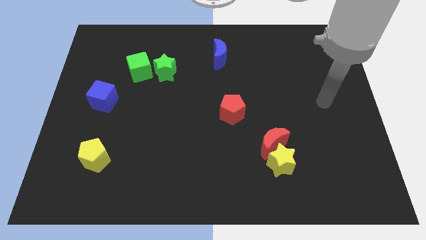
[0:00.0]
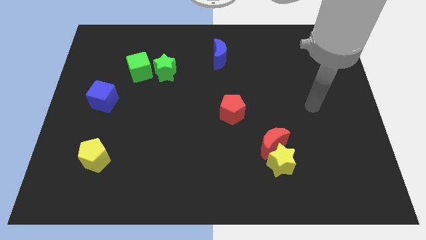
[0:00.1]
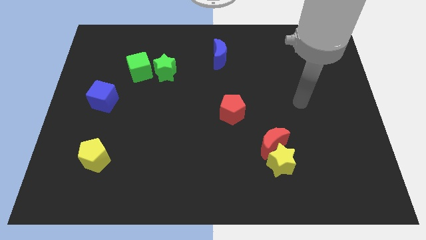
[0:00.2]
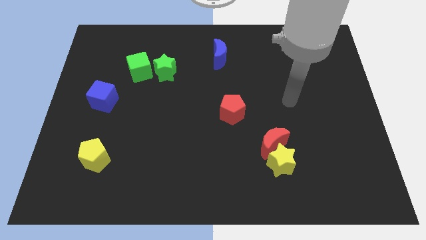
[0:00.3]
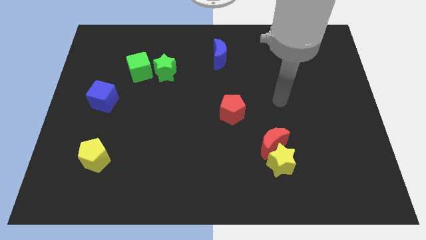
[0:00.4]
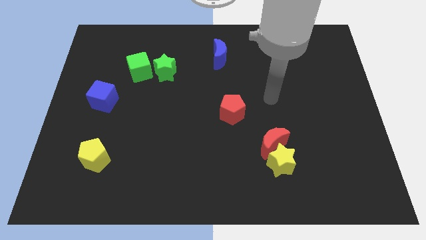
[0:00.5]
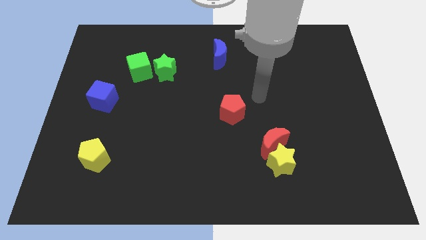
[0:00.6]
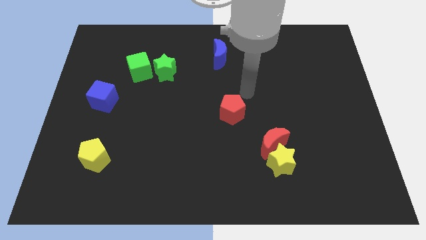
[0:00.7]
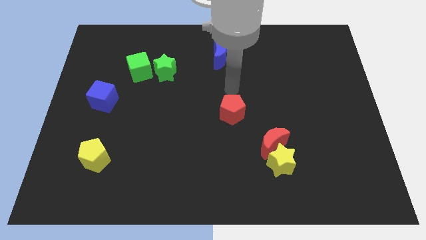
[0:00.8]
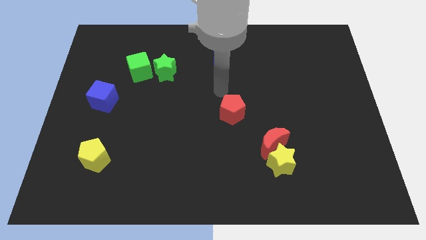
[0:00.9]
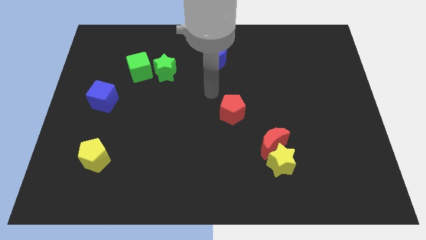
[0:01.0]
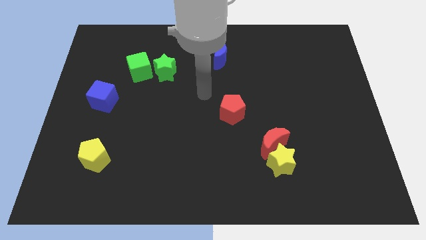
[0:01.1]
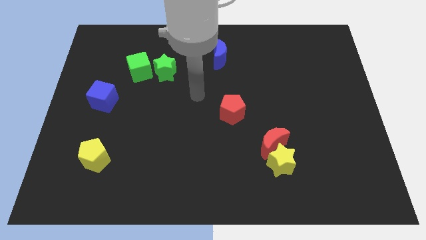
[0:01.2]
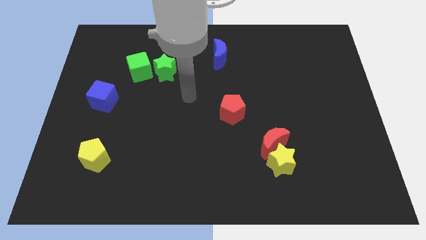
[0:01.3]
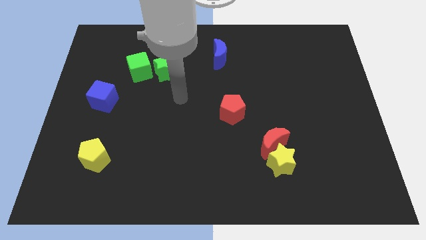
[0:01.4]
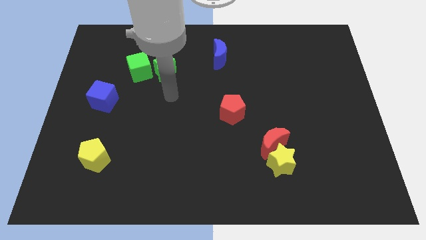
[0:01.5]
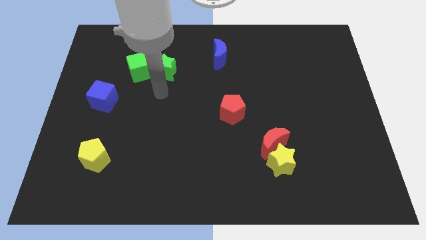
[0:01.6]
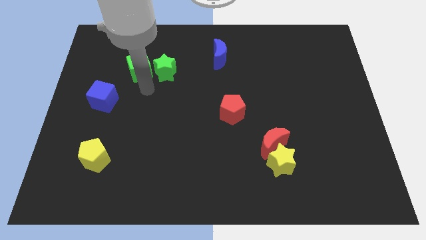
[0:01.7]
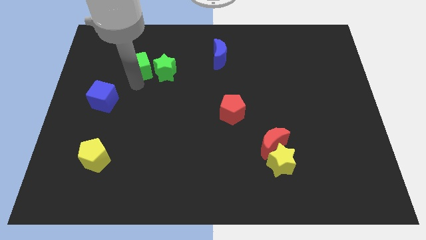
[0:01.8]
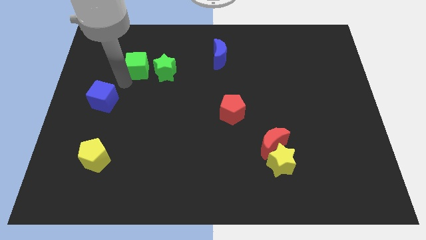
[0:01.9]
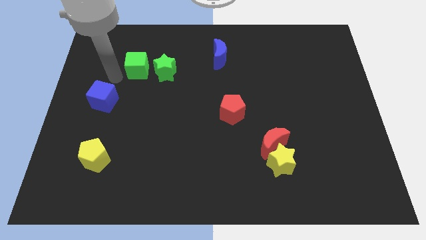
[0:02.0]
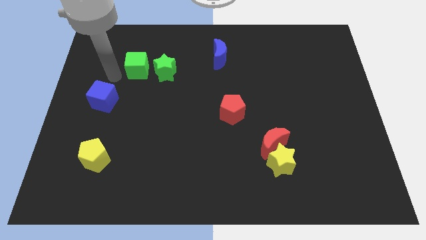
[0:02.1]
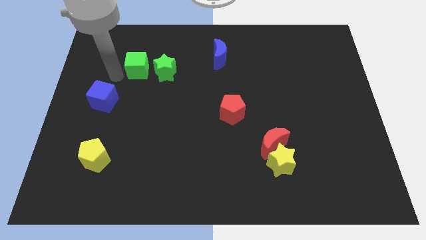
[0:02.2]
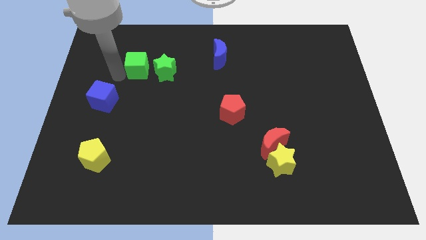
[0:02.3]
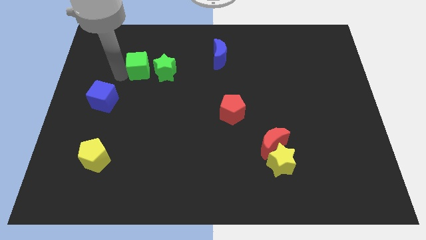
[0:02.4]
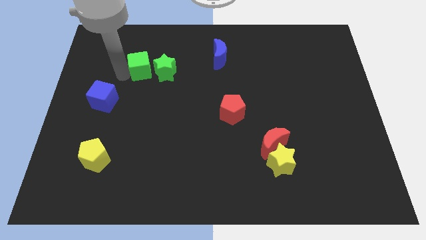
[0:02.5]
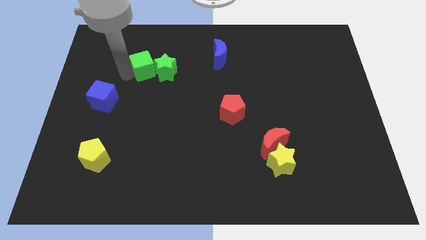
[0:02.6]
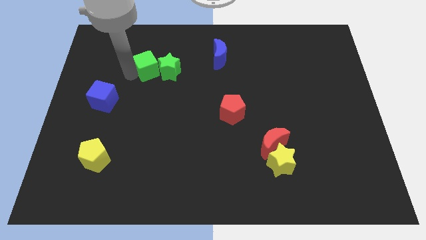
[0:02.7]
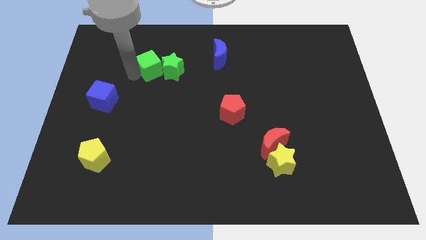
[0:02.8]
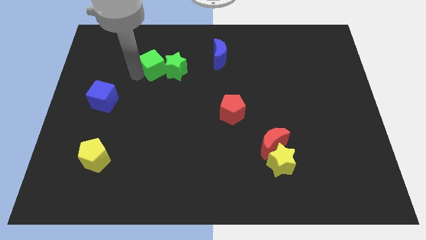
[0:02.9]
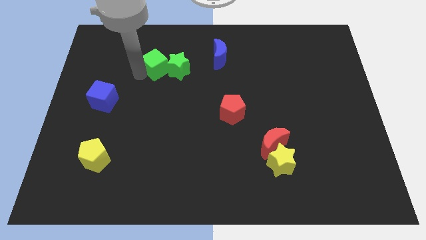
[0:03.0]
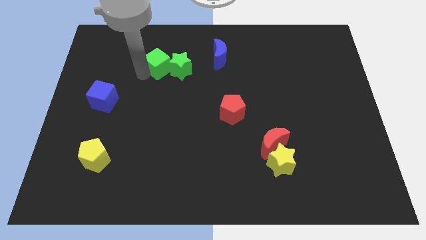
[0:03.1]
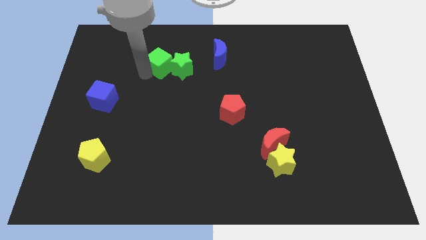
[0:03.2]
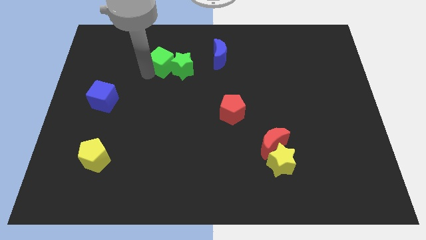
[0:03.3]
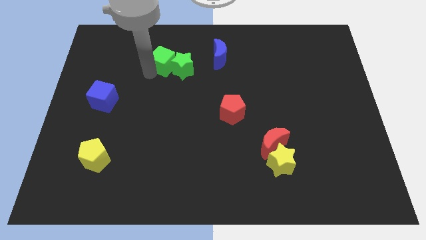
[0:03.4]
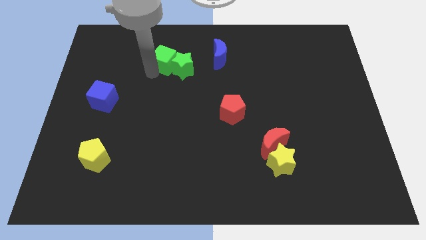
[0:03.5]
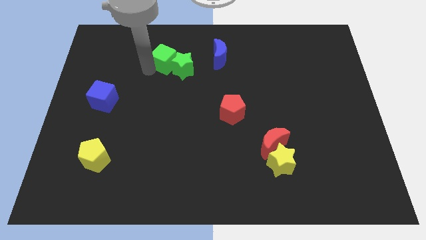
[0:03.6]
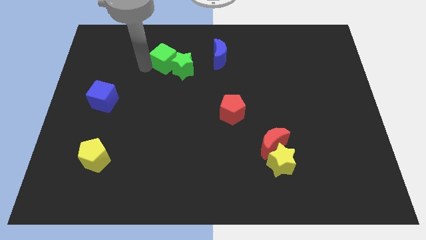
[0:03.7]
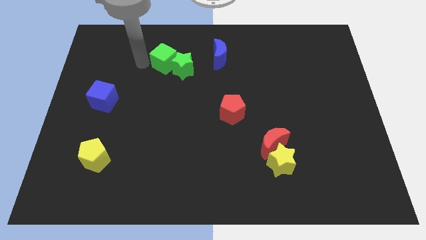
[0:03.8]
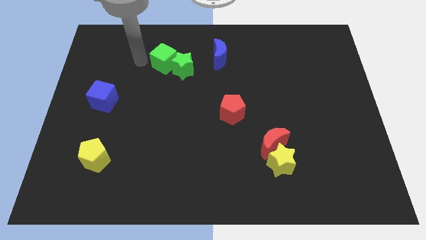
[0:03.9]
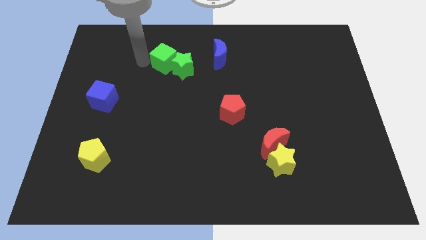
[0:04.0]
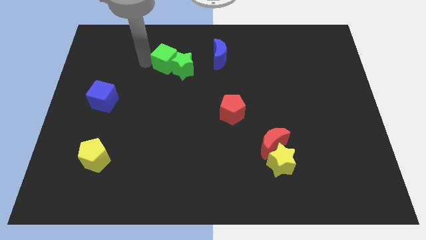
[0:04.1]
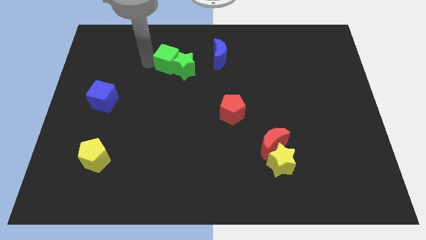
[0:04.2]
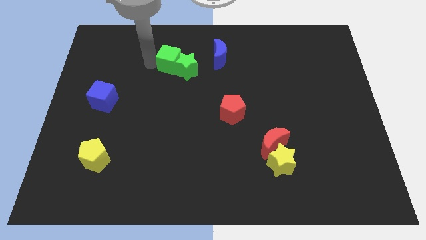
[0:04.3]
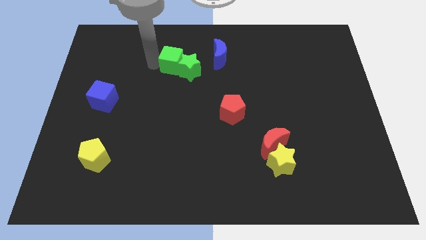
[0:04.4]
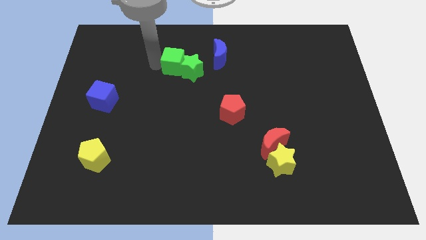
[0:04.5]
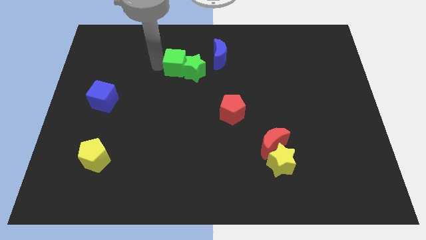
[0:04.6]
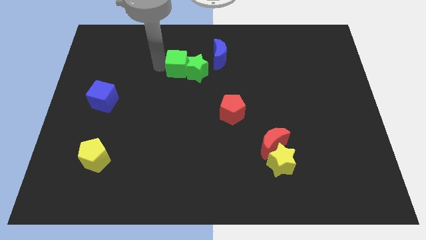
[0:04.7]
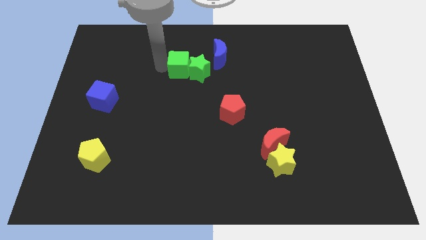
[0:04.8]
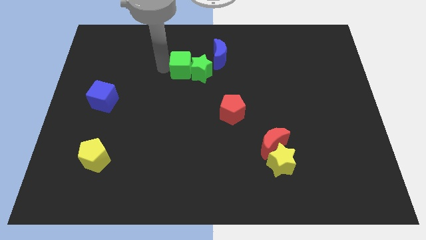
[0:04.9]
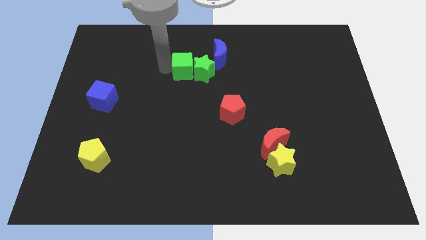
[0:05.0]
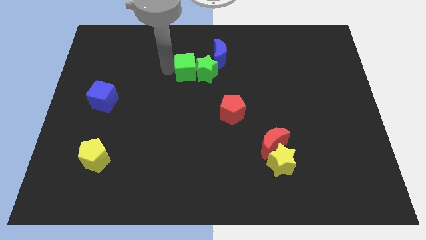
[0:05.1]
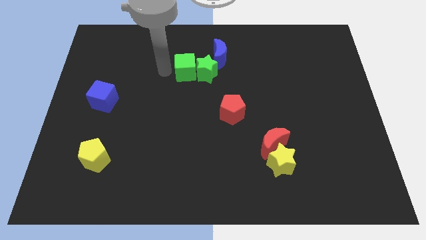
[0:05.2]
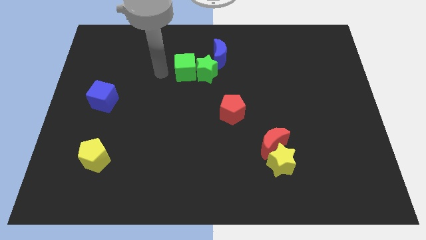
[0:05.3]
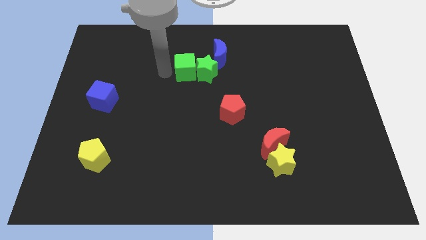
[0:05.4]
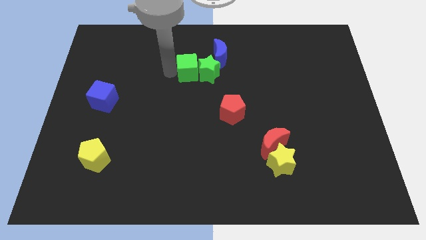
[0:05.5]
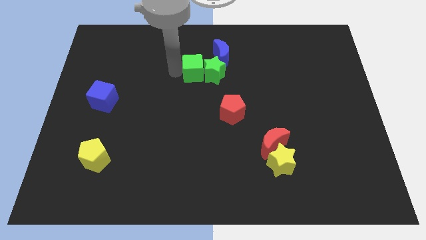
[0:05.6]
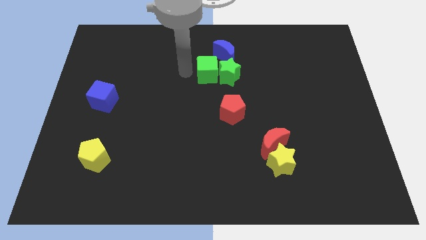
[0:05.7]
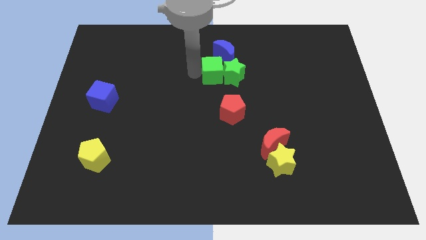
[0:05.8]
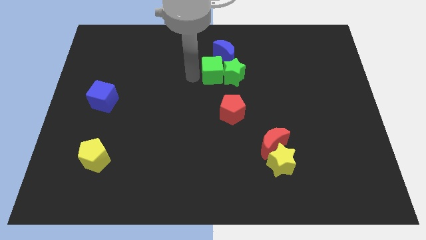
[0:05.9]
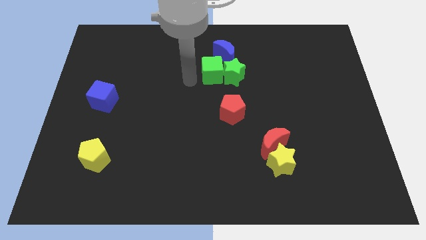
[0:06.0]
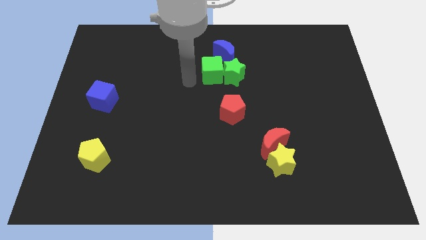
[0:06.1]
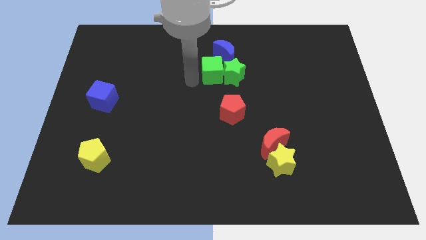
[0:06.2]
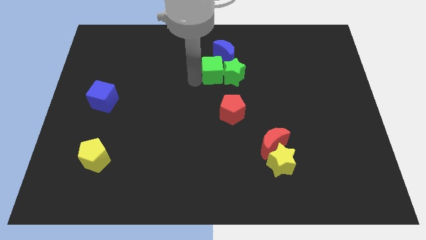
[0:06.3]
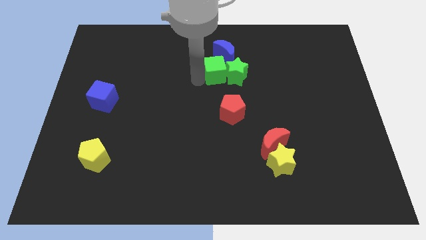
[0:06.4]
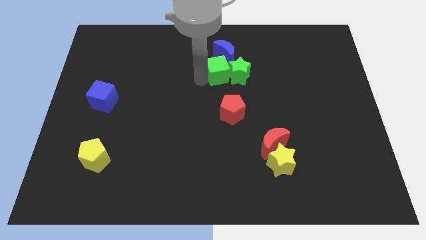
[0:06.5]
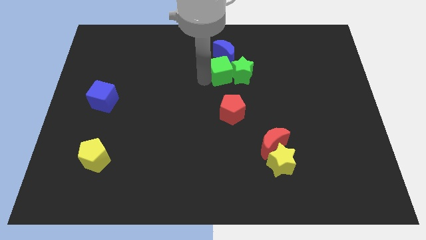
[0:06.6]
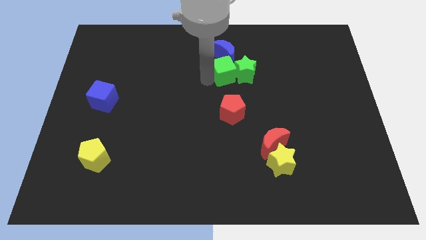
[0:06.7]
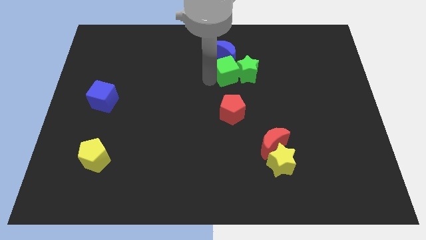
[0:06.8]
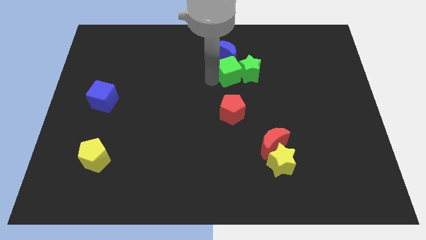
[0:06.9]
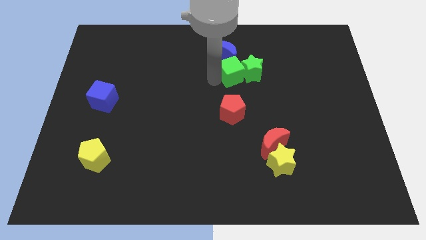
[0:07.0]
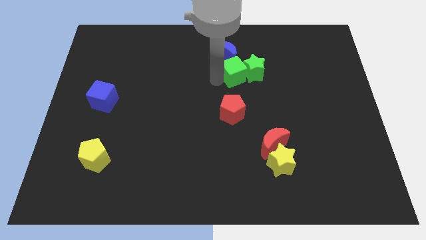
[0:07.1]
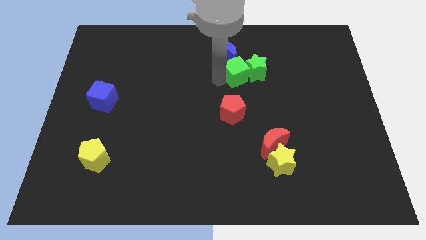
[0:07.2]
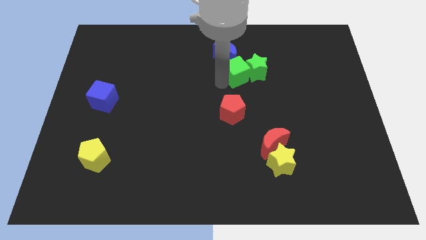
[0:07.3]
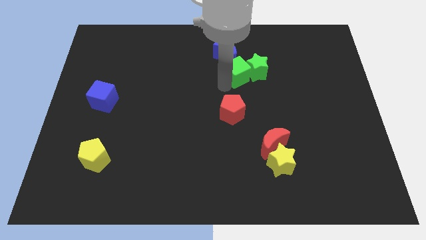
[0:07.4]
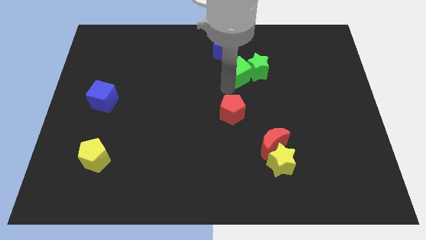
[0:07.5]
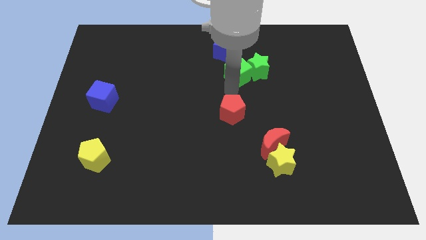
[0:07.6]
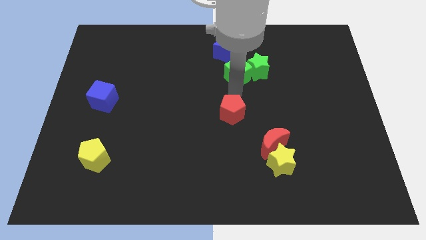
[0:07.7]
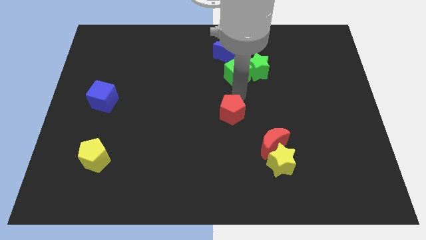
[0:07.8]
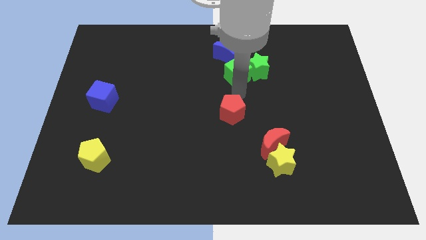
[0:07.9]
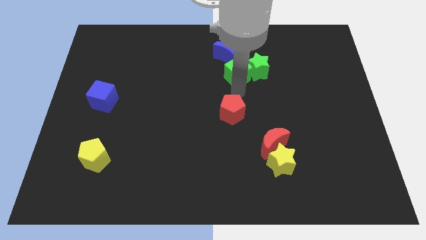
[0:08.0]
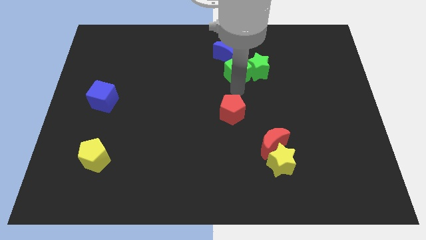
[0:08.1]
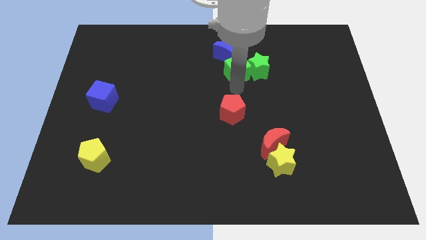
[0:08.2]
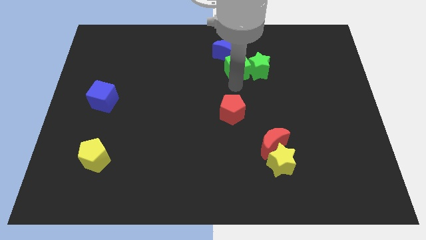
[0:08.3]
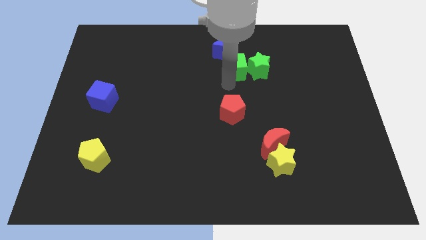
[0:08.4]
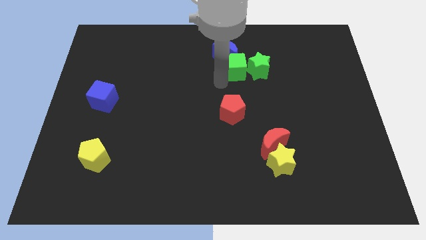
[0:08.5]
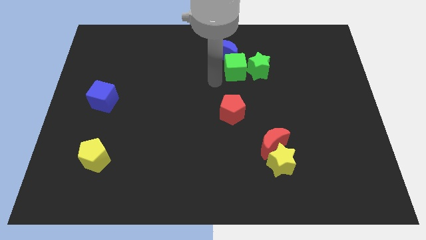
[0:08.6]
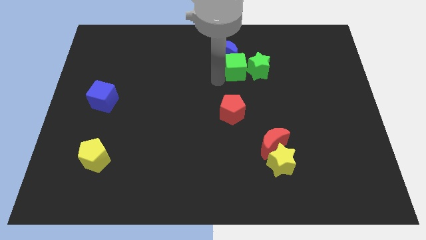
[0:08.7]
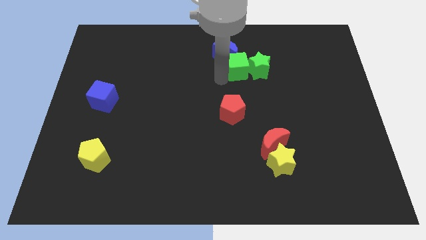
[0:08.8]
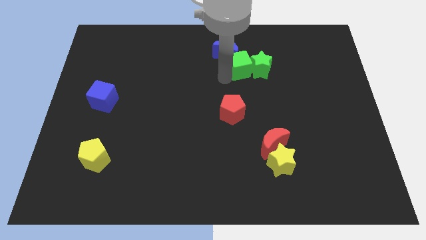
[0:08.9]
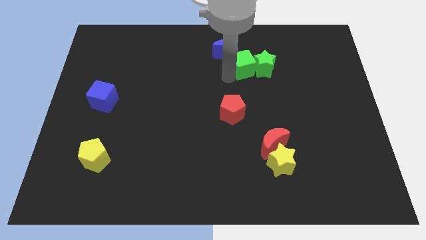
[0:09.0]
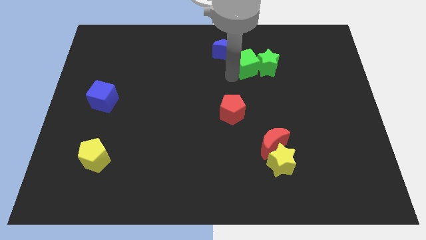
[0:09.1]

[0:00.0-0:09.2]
push the green cube just right of the blue moon
